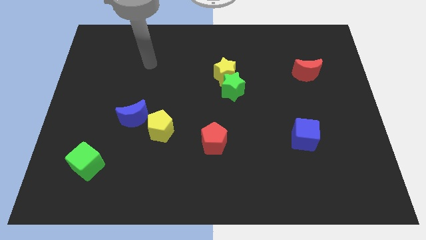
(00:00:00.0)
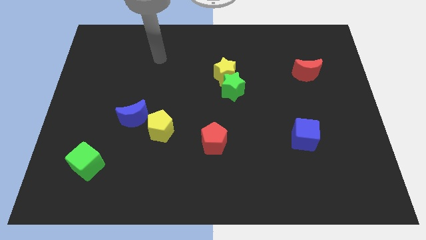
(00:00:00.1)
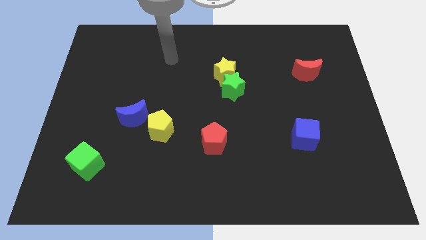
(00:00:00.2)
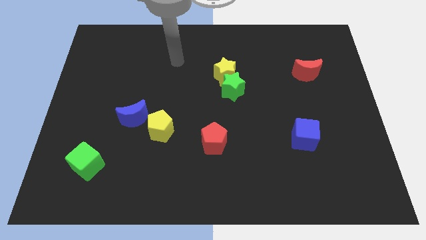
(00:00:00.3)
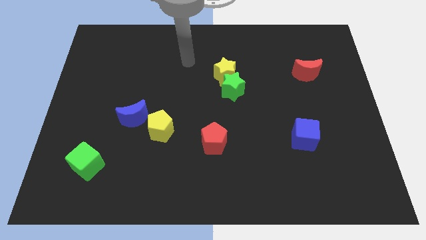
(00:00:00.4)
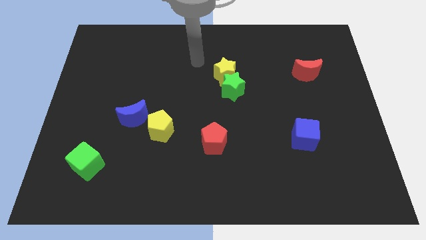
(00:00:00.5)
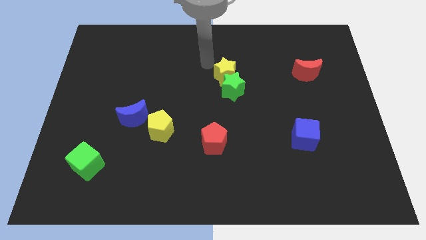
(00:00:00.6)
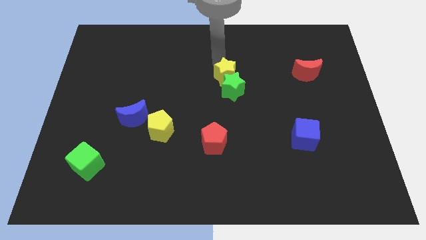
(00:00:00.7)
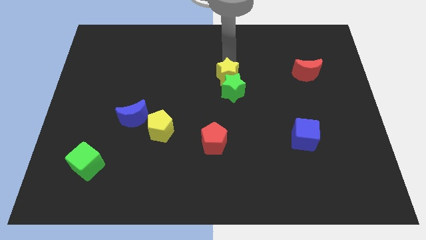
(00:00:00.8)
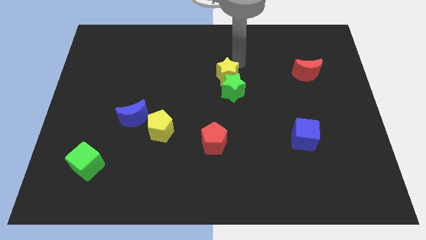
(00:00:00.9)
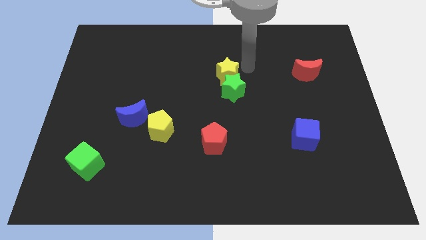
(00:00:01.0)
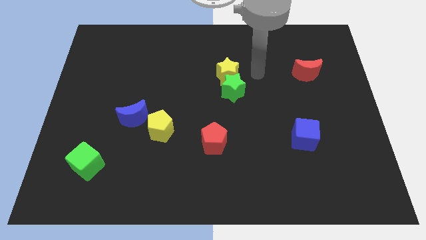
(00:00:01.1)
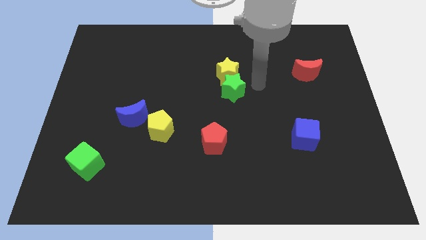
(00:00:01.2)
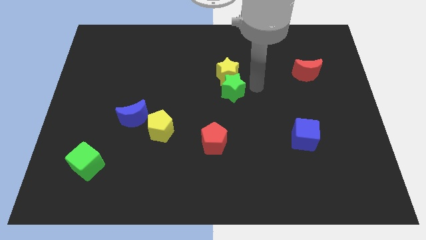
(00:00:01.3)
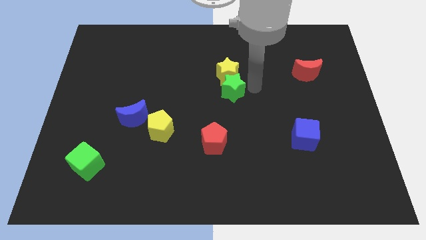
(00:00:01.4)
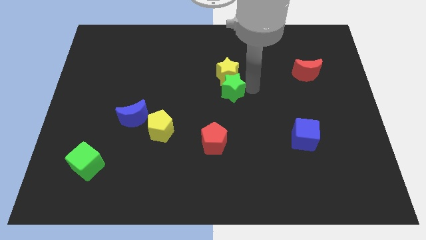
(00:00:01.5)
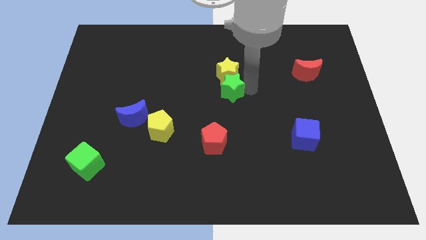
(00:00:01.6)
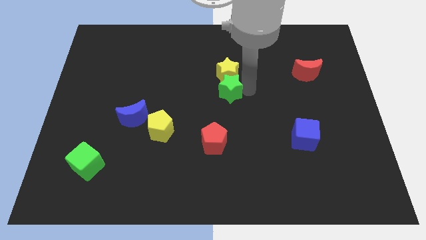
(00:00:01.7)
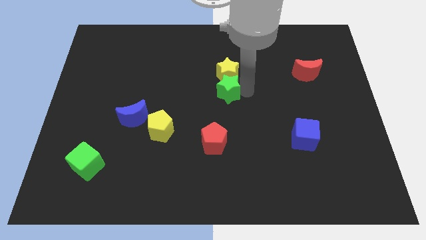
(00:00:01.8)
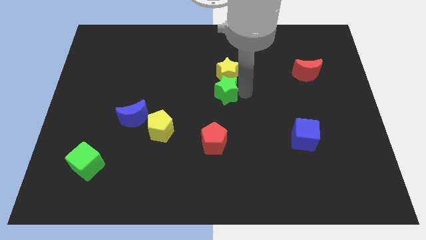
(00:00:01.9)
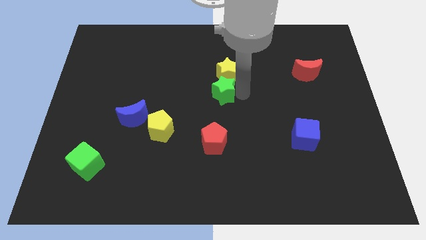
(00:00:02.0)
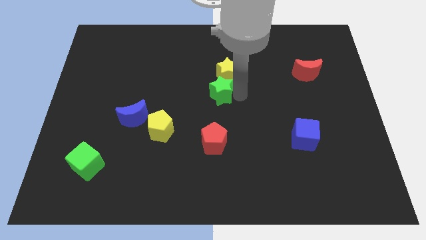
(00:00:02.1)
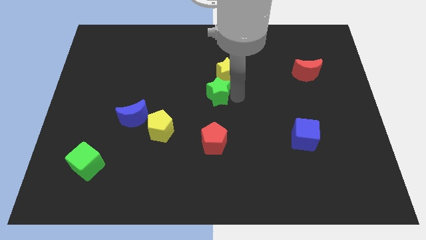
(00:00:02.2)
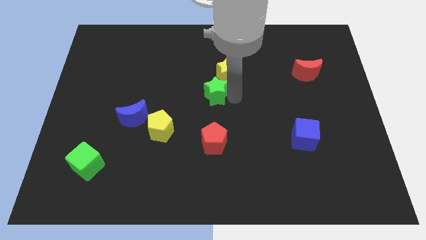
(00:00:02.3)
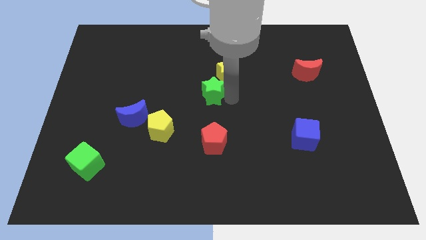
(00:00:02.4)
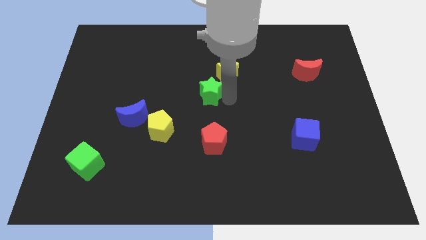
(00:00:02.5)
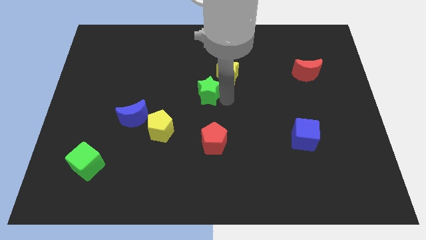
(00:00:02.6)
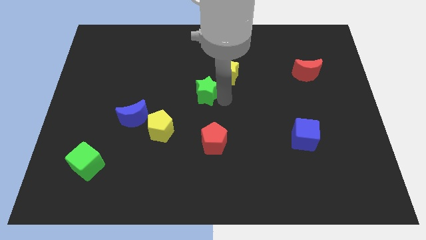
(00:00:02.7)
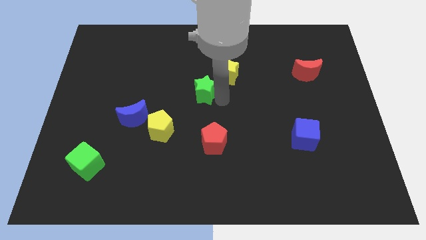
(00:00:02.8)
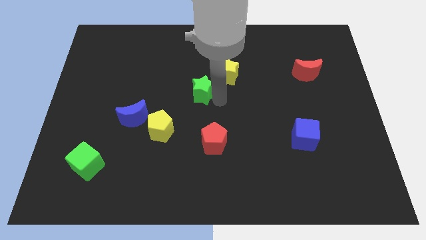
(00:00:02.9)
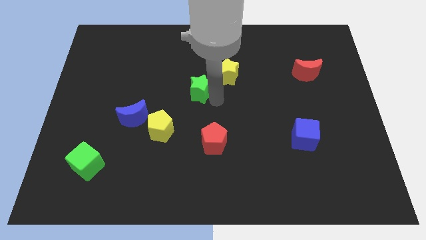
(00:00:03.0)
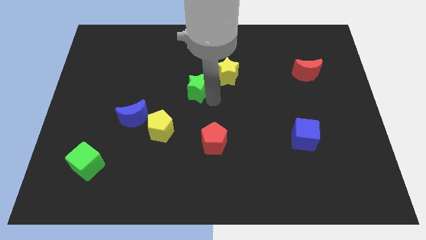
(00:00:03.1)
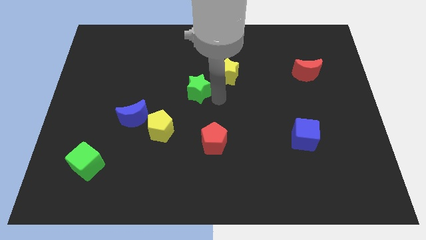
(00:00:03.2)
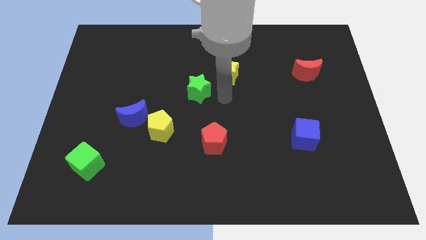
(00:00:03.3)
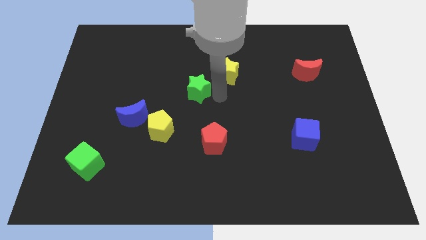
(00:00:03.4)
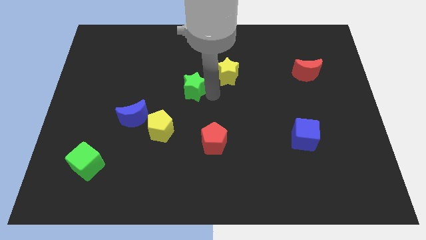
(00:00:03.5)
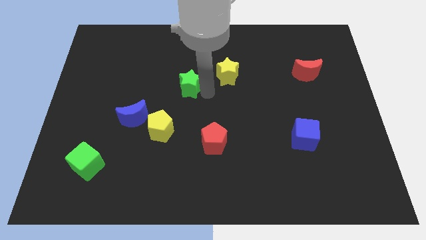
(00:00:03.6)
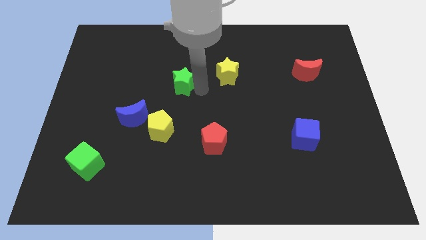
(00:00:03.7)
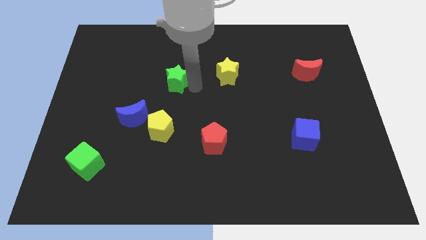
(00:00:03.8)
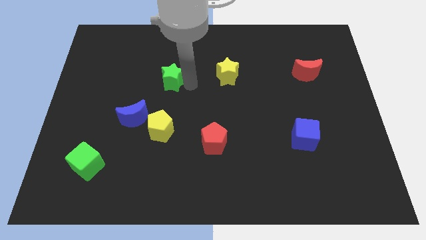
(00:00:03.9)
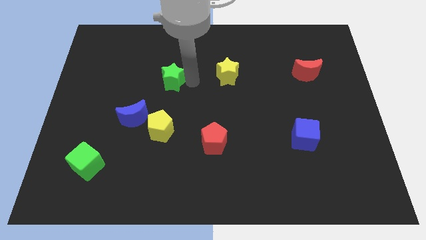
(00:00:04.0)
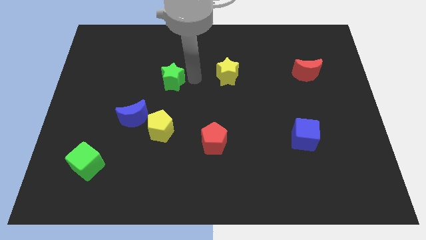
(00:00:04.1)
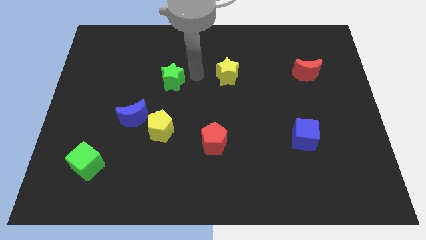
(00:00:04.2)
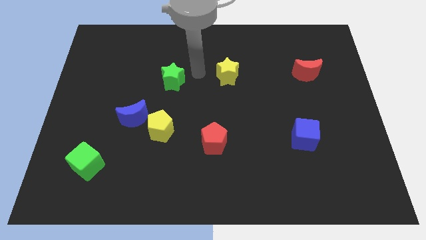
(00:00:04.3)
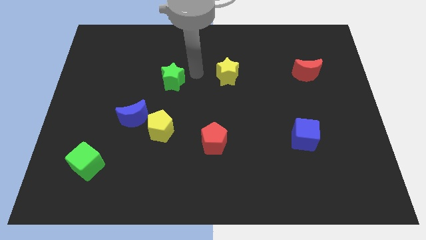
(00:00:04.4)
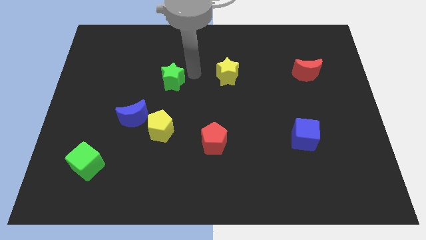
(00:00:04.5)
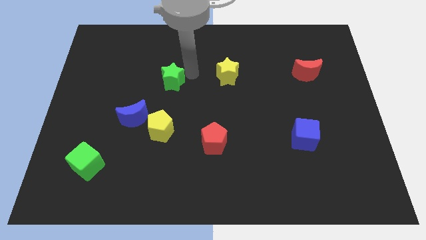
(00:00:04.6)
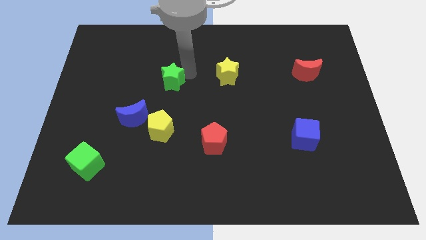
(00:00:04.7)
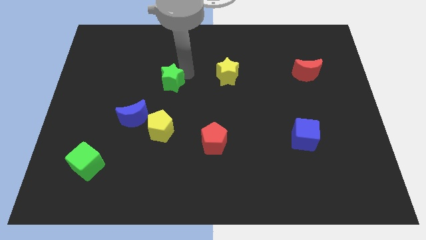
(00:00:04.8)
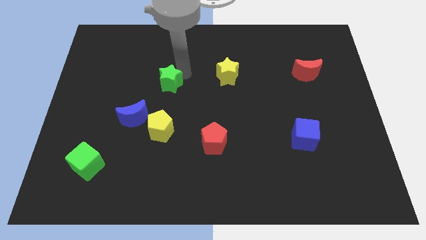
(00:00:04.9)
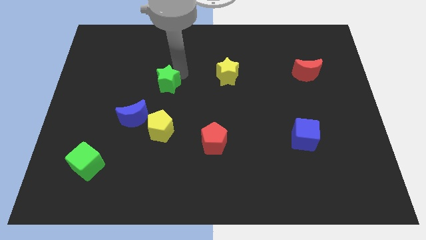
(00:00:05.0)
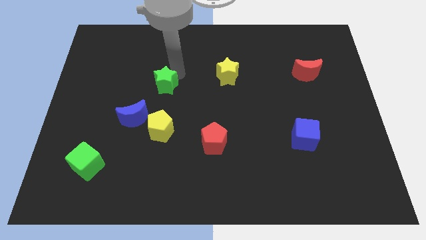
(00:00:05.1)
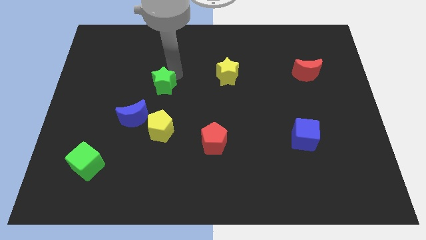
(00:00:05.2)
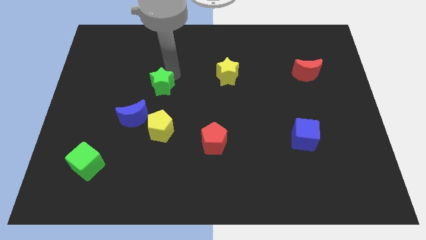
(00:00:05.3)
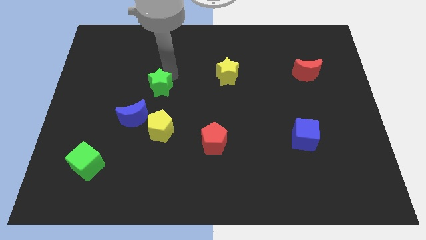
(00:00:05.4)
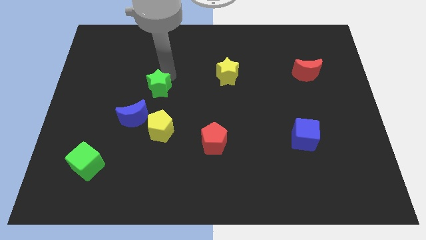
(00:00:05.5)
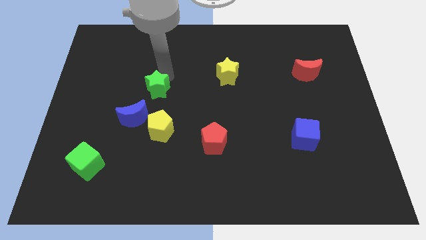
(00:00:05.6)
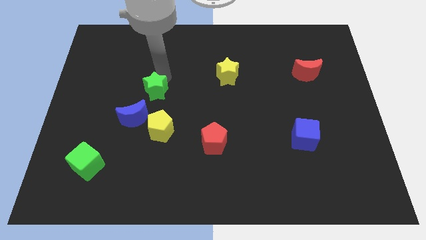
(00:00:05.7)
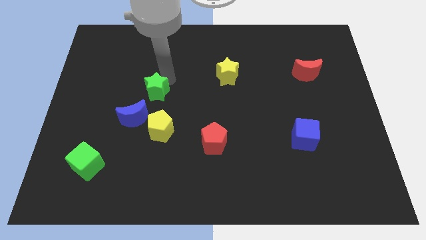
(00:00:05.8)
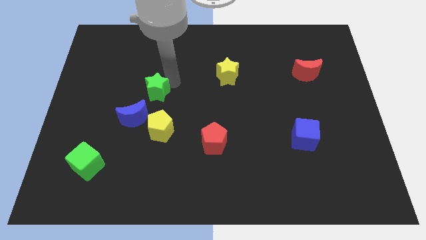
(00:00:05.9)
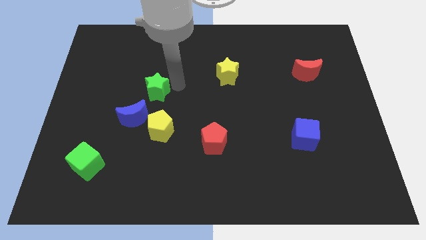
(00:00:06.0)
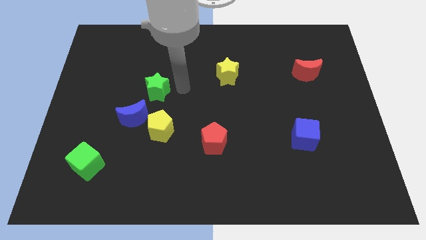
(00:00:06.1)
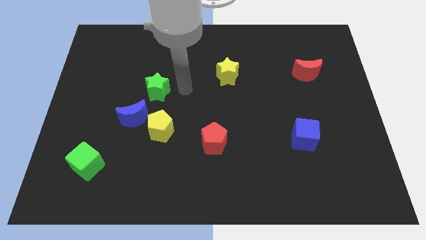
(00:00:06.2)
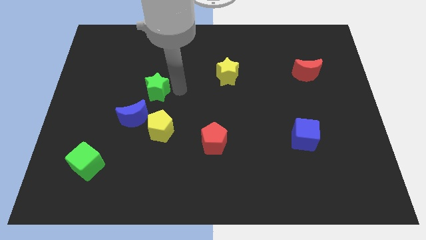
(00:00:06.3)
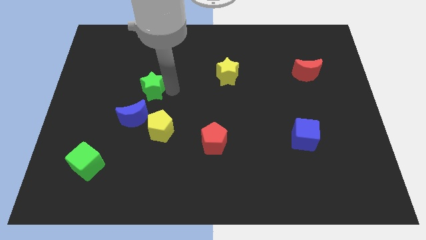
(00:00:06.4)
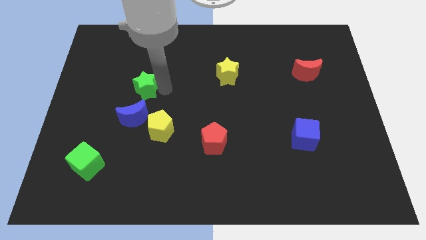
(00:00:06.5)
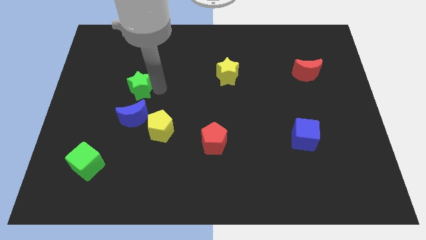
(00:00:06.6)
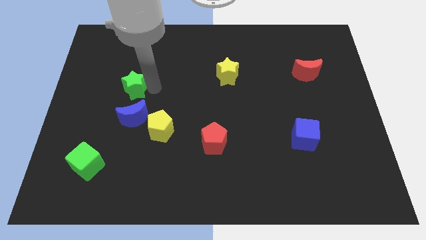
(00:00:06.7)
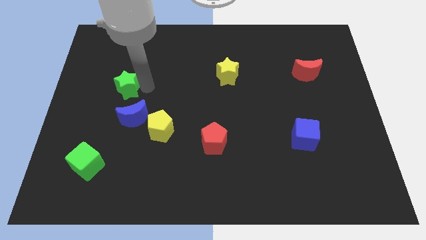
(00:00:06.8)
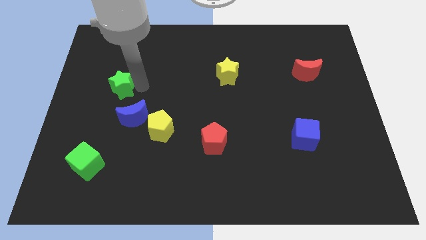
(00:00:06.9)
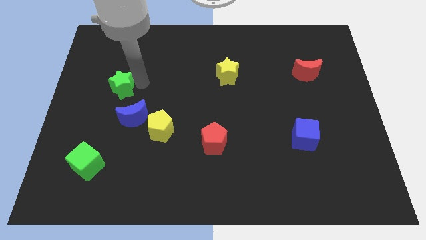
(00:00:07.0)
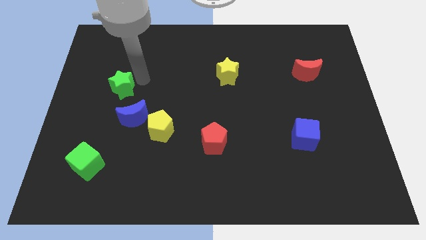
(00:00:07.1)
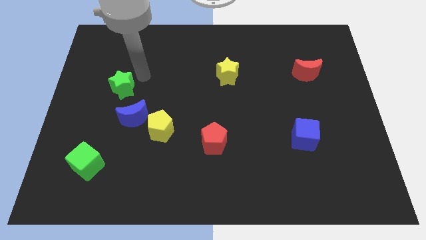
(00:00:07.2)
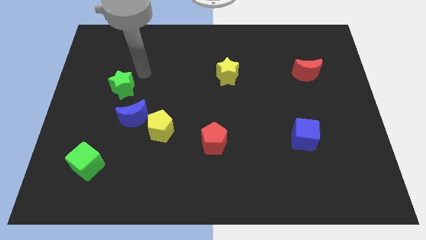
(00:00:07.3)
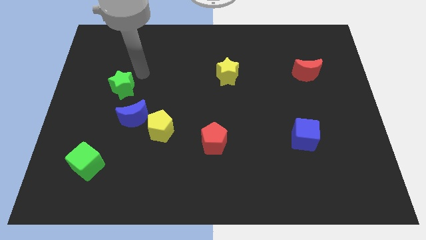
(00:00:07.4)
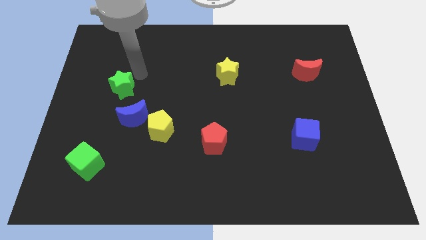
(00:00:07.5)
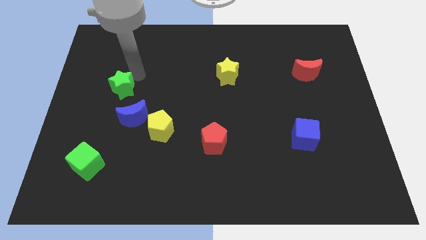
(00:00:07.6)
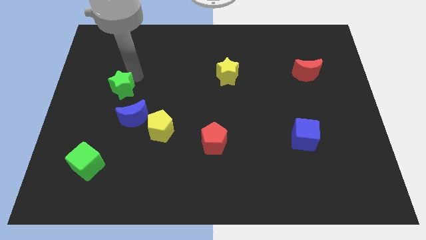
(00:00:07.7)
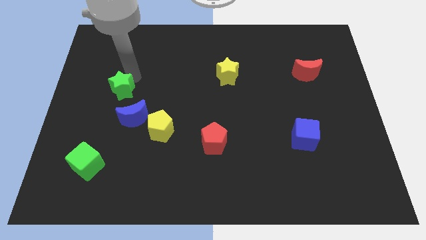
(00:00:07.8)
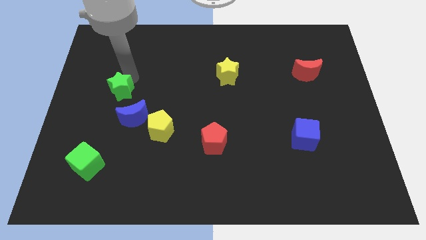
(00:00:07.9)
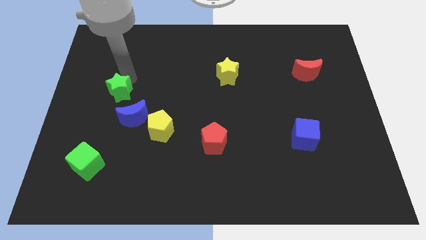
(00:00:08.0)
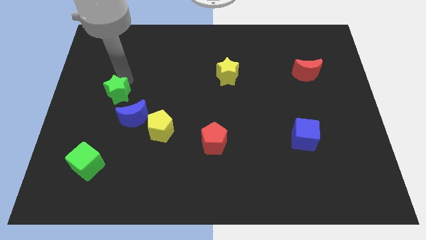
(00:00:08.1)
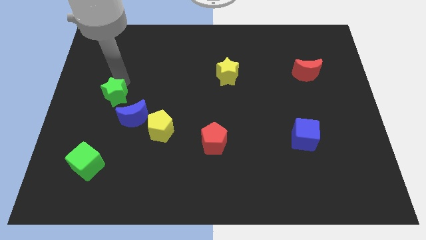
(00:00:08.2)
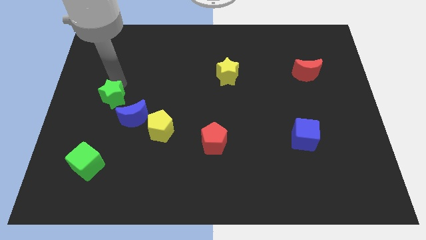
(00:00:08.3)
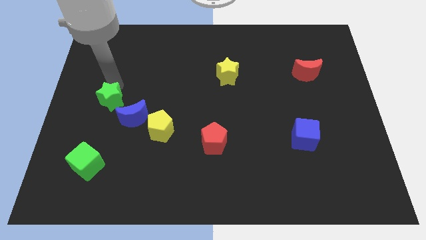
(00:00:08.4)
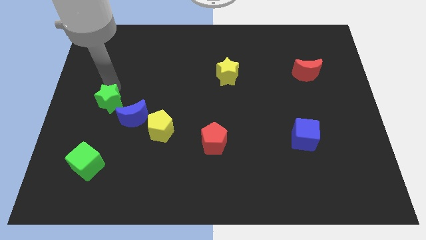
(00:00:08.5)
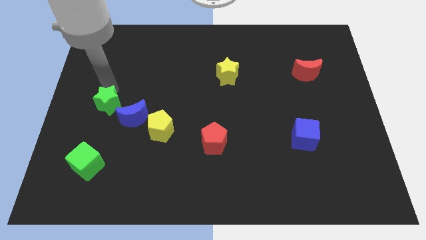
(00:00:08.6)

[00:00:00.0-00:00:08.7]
push the green star left of the blue moon
